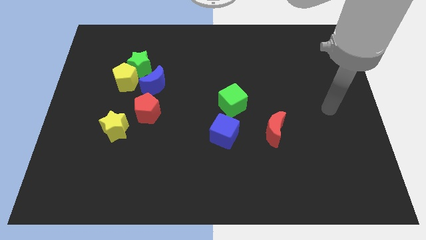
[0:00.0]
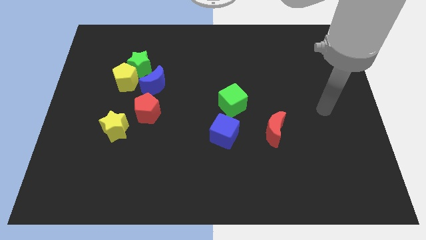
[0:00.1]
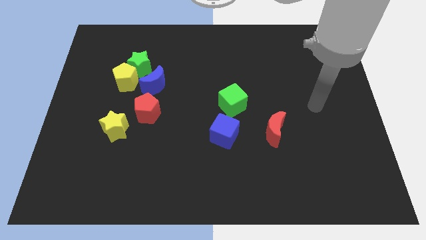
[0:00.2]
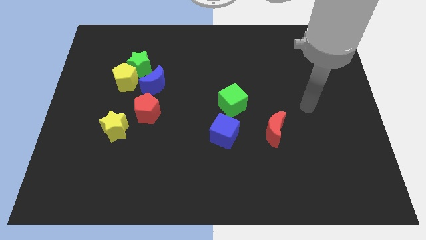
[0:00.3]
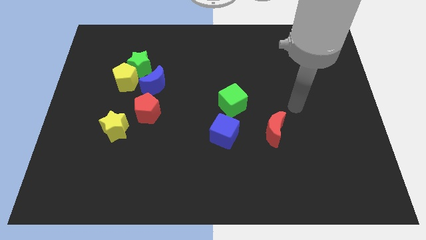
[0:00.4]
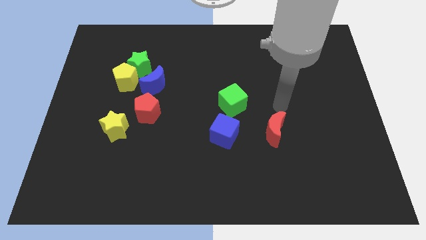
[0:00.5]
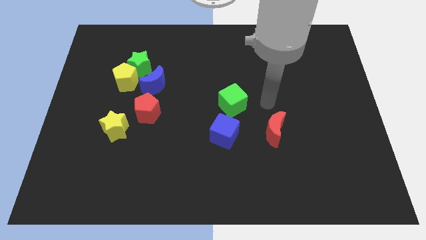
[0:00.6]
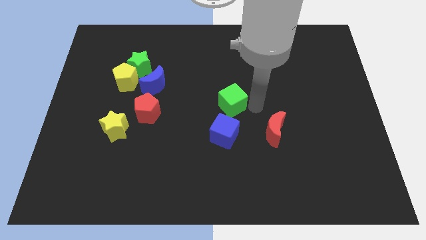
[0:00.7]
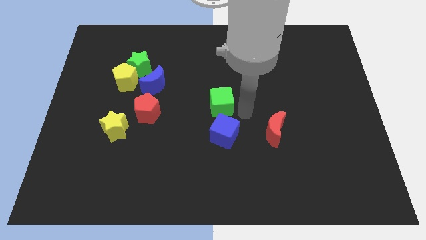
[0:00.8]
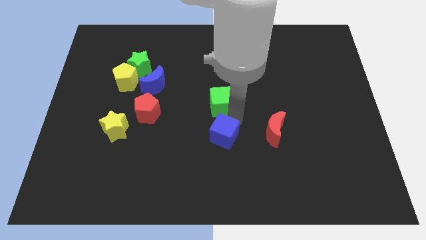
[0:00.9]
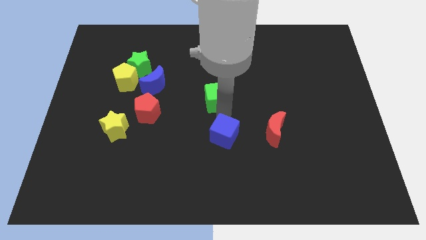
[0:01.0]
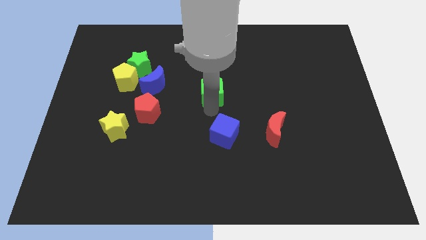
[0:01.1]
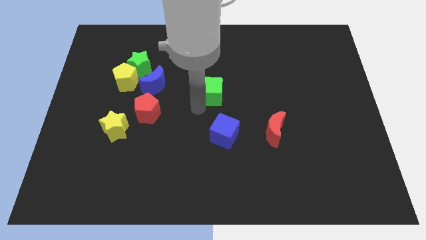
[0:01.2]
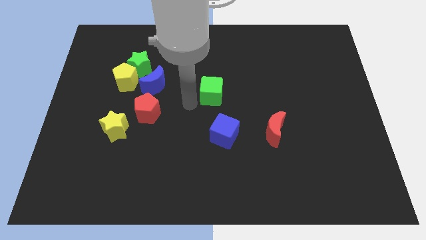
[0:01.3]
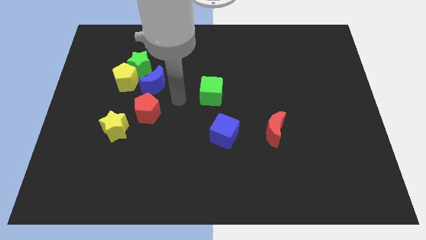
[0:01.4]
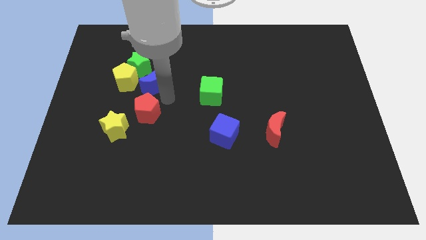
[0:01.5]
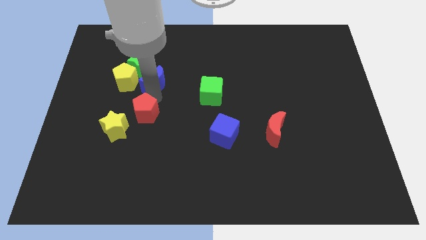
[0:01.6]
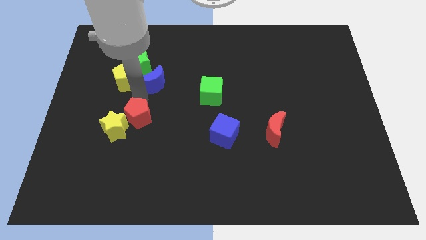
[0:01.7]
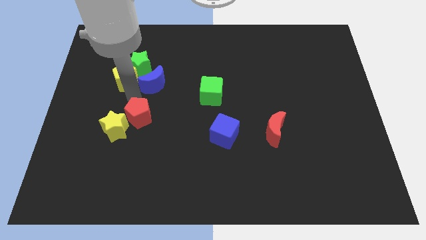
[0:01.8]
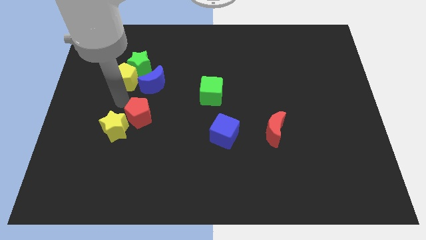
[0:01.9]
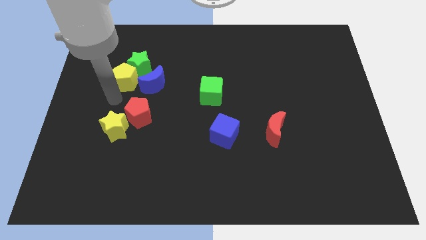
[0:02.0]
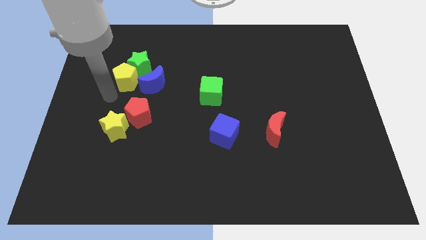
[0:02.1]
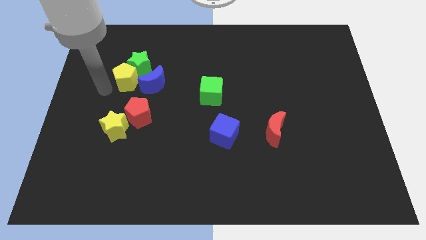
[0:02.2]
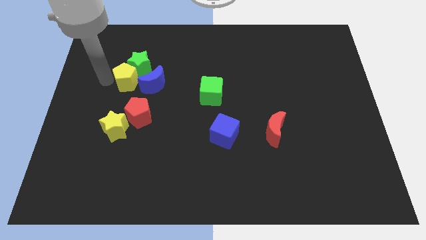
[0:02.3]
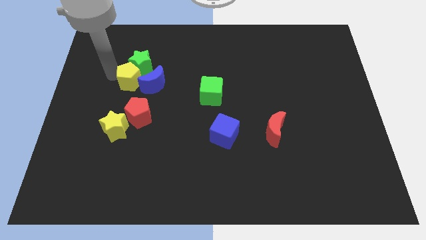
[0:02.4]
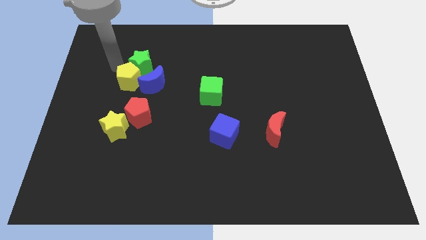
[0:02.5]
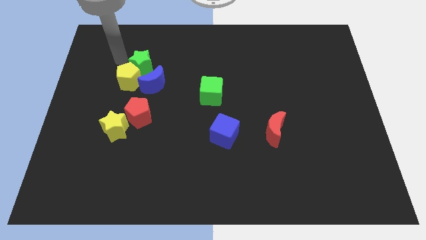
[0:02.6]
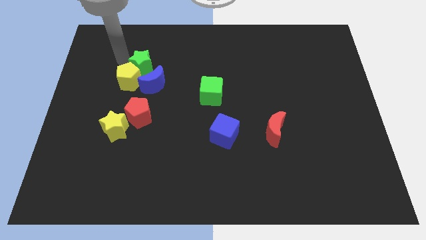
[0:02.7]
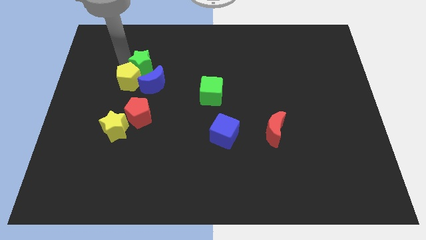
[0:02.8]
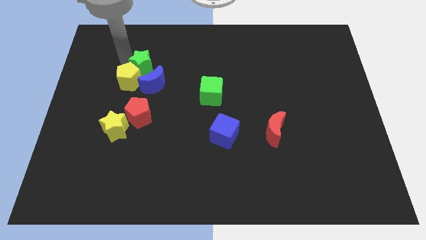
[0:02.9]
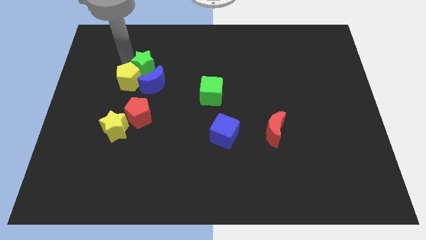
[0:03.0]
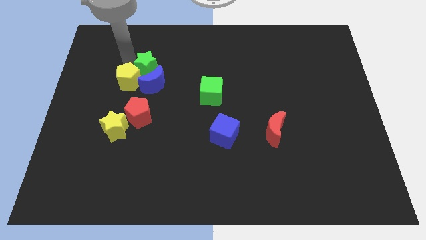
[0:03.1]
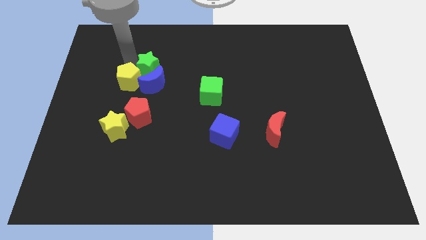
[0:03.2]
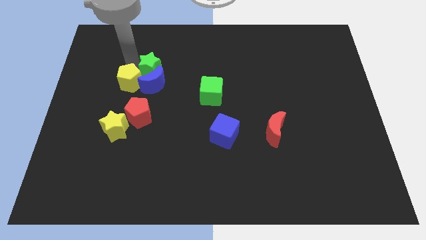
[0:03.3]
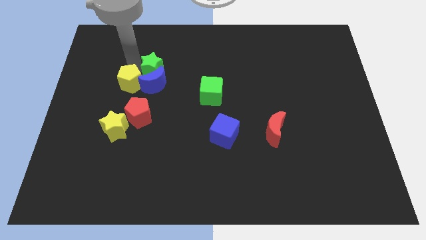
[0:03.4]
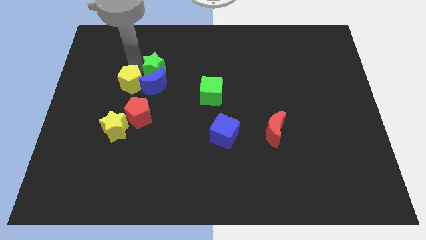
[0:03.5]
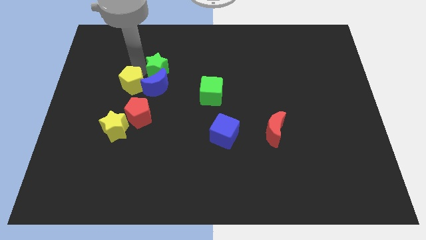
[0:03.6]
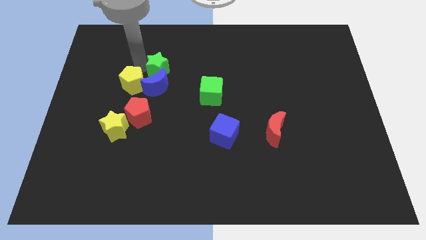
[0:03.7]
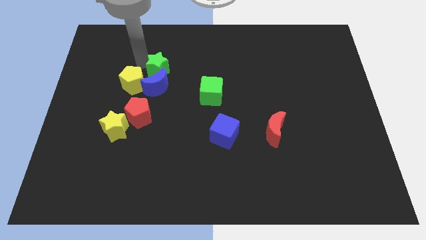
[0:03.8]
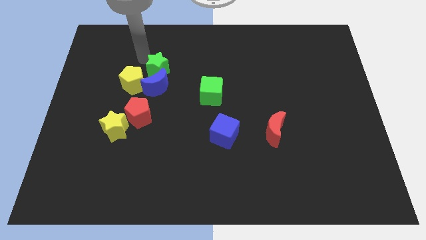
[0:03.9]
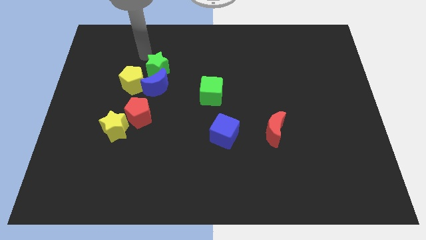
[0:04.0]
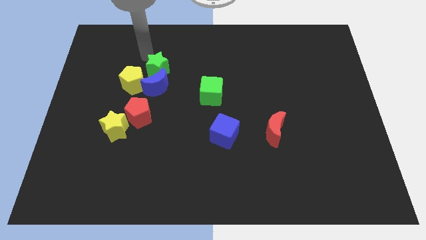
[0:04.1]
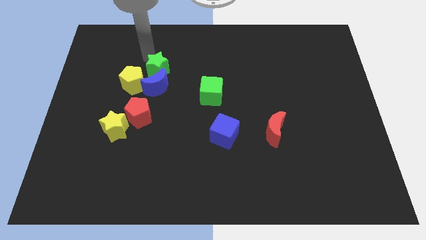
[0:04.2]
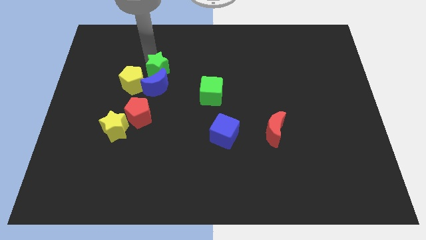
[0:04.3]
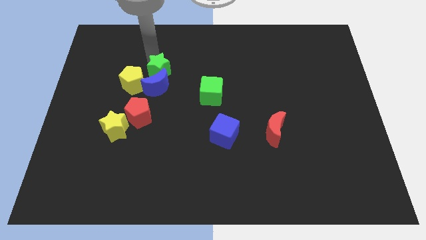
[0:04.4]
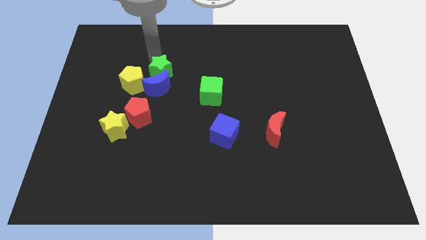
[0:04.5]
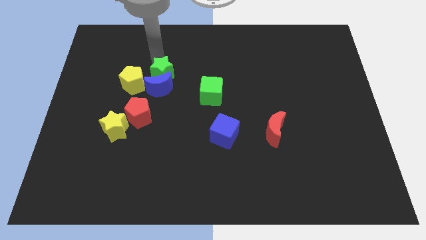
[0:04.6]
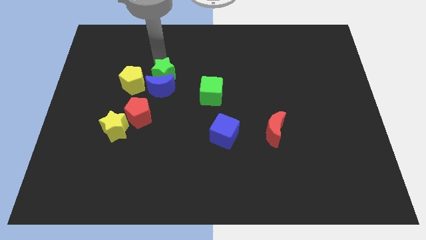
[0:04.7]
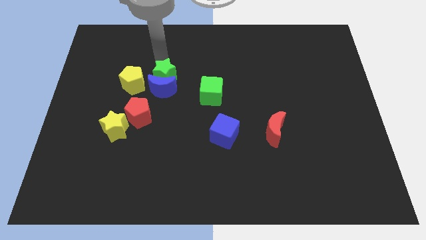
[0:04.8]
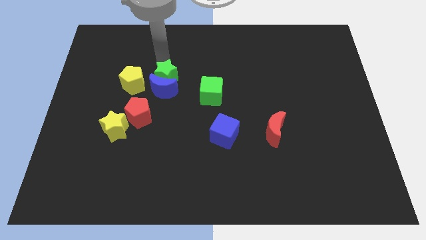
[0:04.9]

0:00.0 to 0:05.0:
slightly move the green star down and right diagonally

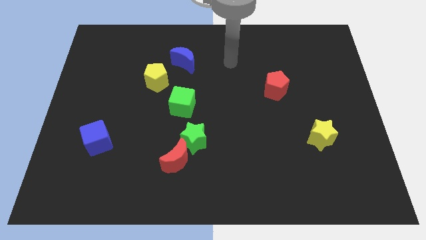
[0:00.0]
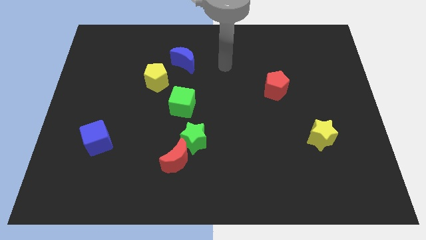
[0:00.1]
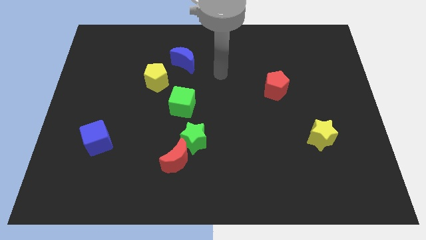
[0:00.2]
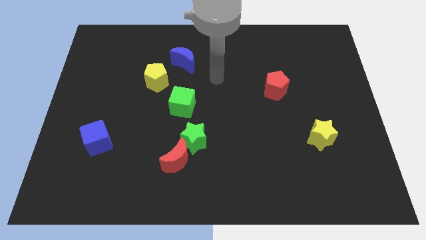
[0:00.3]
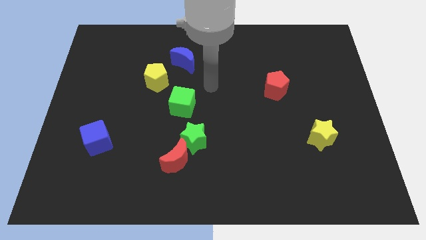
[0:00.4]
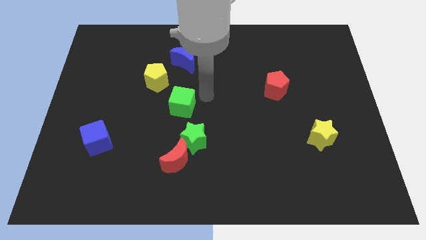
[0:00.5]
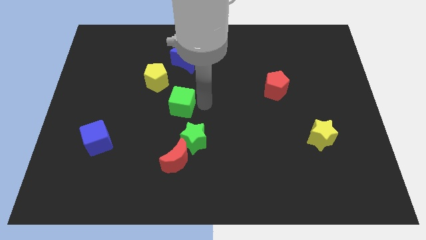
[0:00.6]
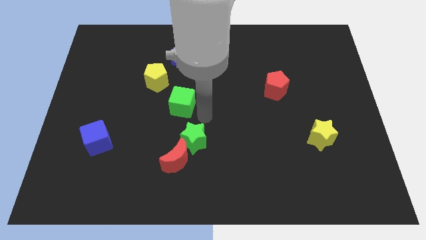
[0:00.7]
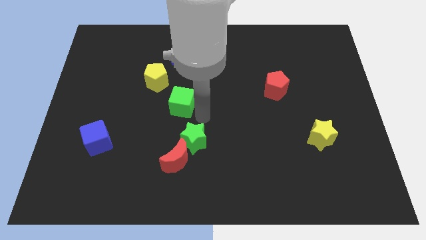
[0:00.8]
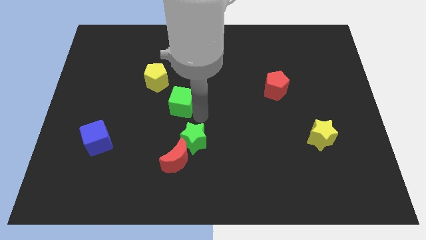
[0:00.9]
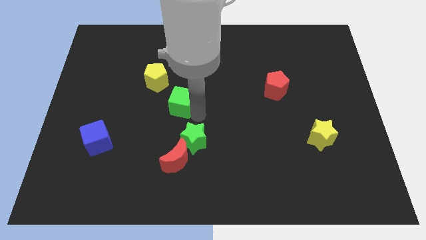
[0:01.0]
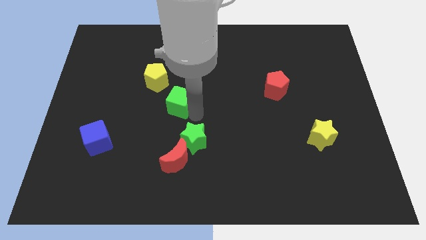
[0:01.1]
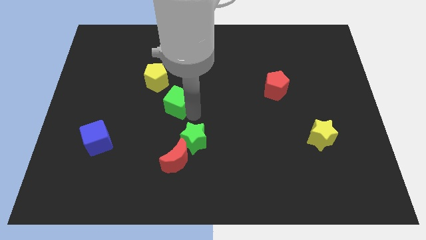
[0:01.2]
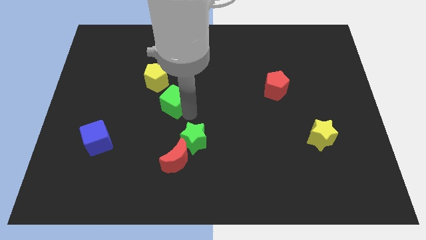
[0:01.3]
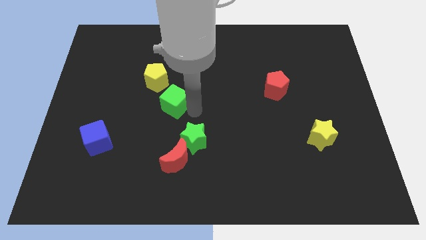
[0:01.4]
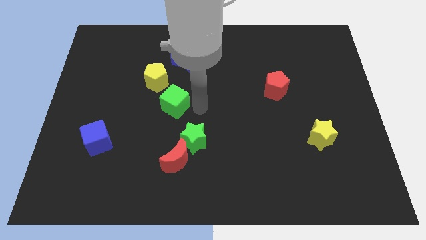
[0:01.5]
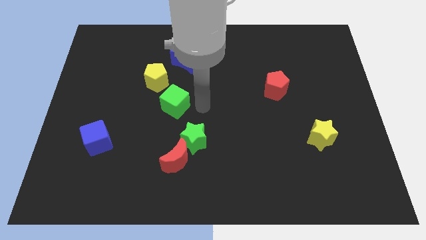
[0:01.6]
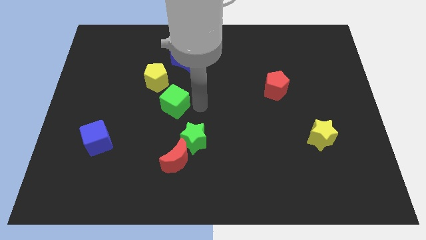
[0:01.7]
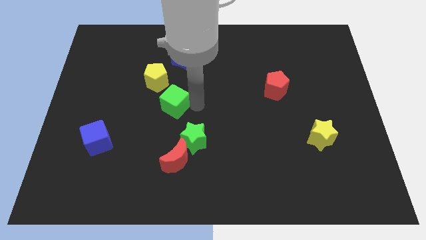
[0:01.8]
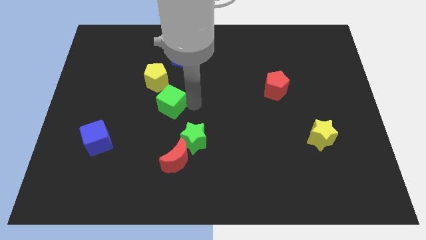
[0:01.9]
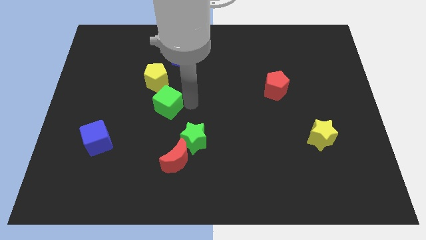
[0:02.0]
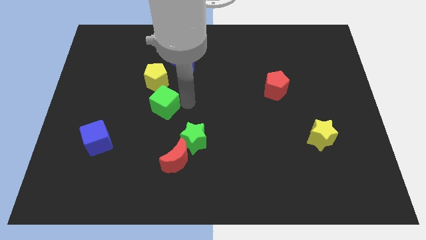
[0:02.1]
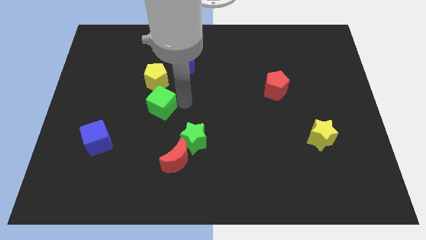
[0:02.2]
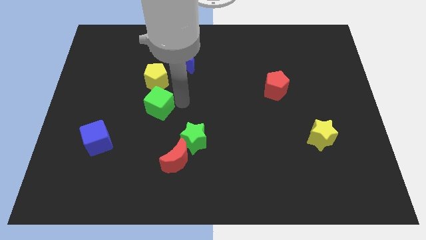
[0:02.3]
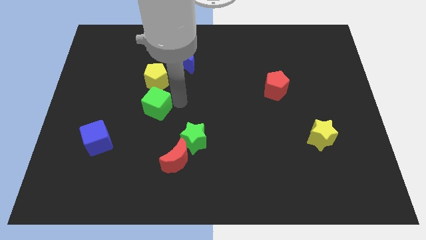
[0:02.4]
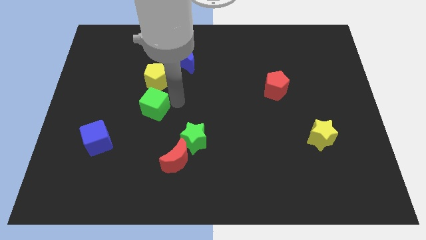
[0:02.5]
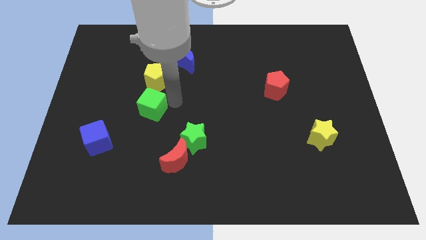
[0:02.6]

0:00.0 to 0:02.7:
move the green cube left a bit

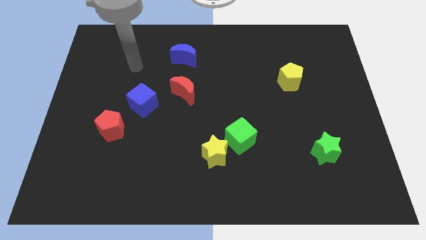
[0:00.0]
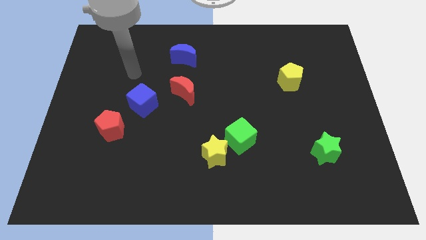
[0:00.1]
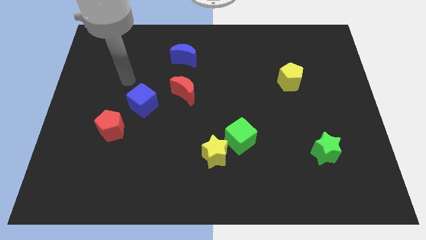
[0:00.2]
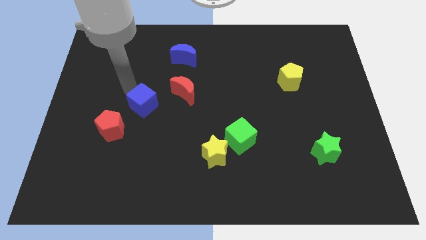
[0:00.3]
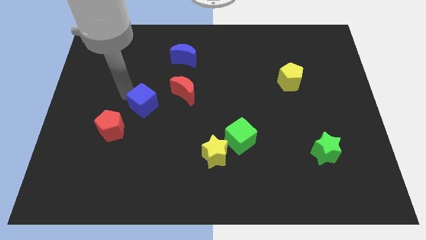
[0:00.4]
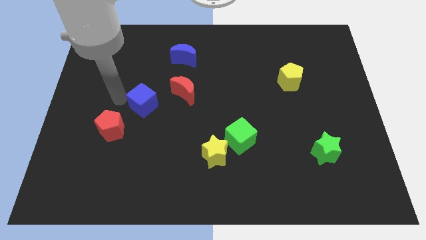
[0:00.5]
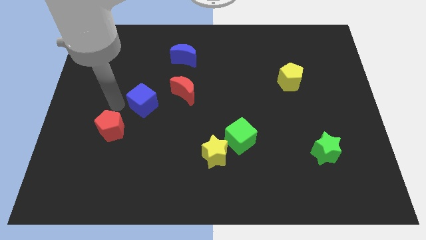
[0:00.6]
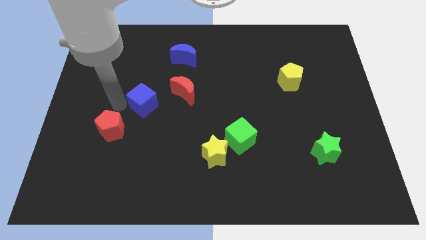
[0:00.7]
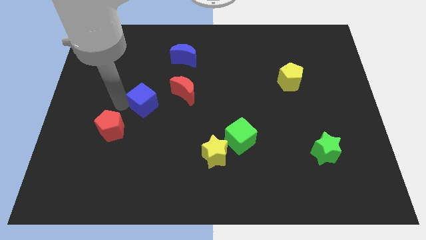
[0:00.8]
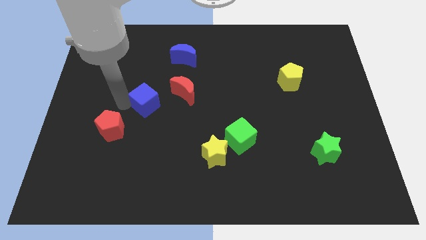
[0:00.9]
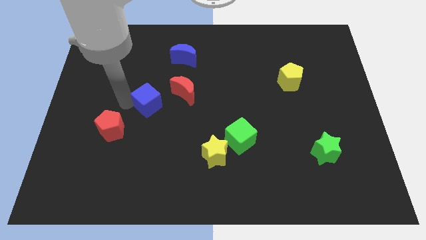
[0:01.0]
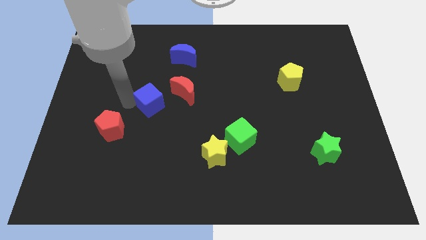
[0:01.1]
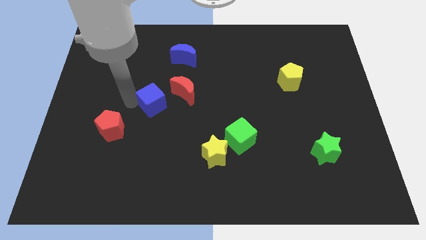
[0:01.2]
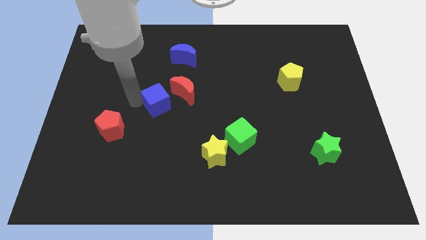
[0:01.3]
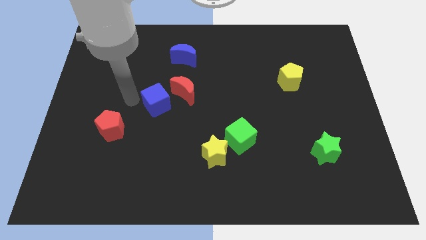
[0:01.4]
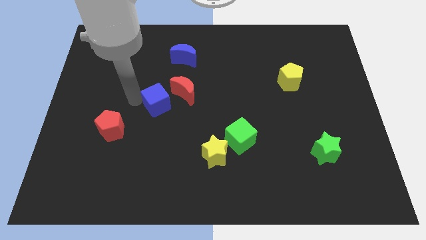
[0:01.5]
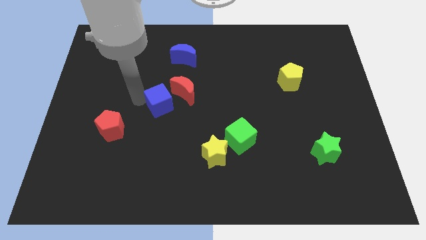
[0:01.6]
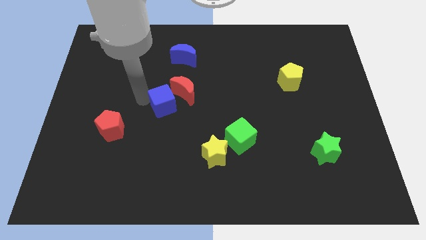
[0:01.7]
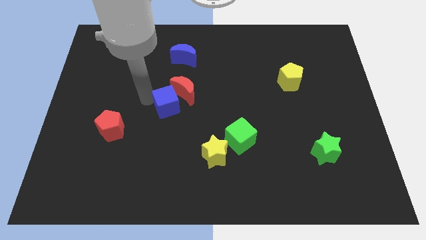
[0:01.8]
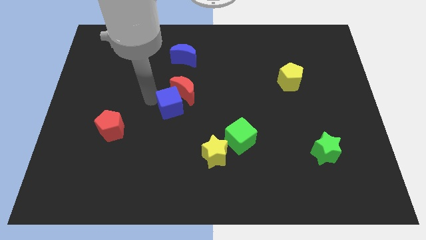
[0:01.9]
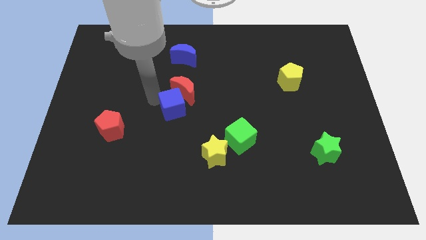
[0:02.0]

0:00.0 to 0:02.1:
push the blue cube to the right a little bit
